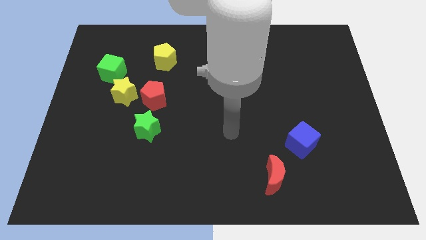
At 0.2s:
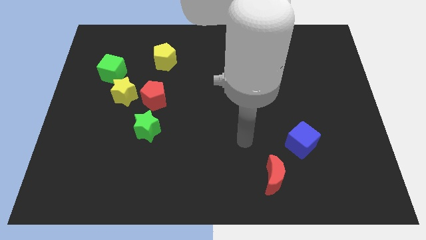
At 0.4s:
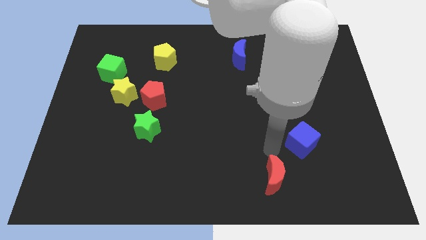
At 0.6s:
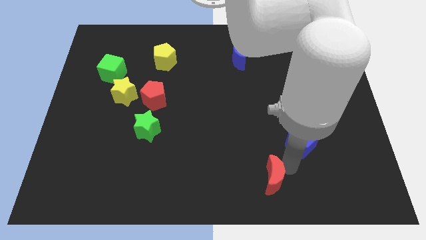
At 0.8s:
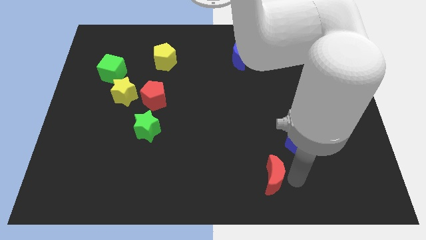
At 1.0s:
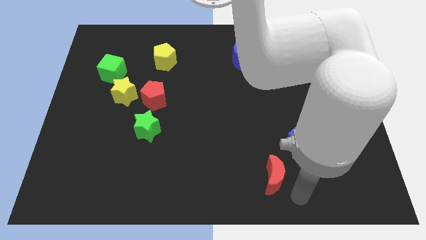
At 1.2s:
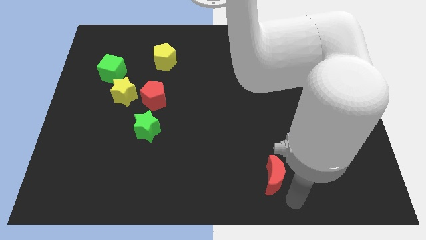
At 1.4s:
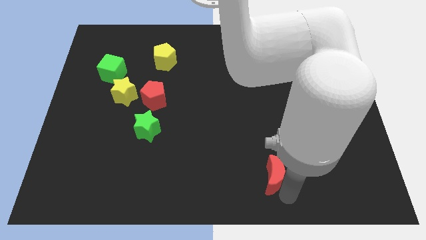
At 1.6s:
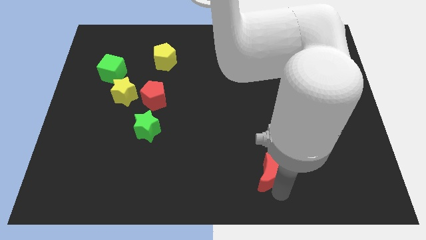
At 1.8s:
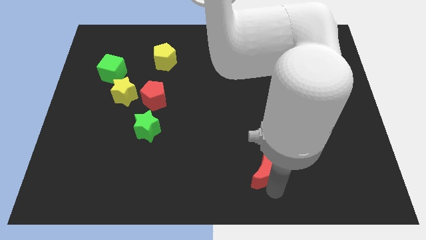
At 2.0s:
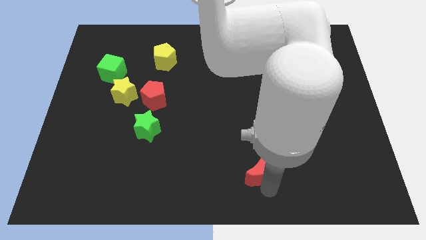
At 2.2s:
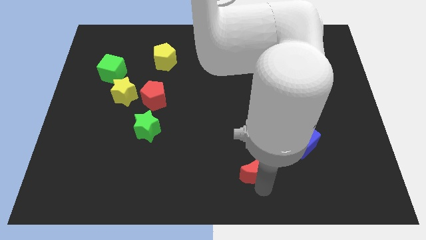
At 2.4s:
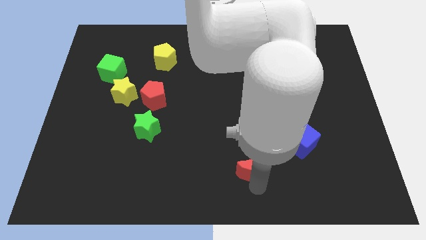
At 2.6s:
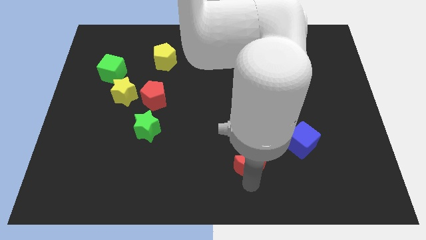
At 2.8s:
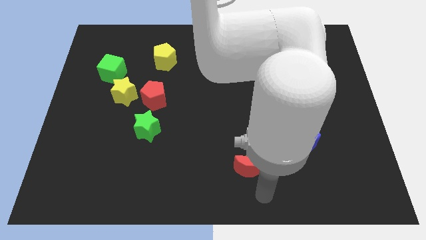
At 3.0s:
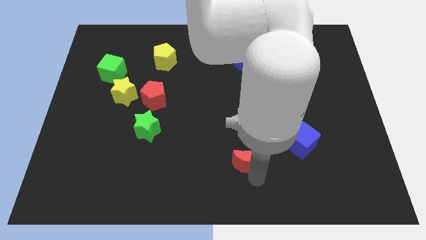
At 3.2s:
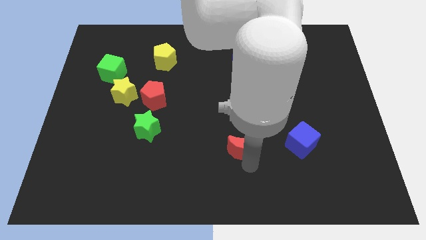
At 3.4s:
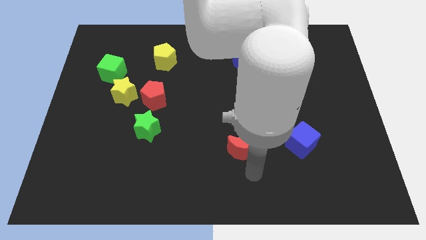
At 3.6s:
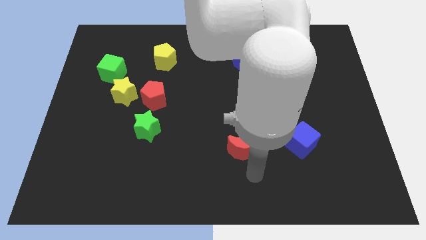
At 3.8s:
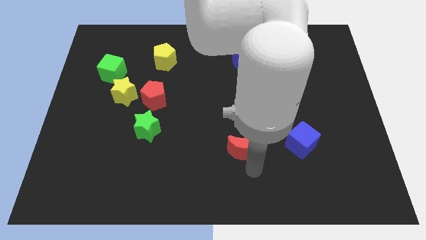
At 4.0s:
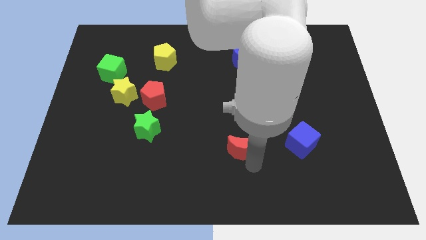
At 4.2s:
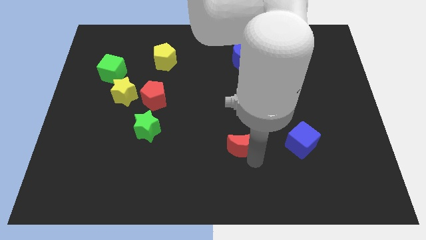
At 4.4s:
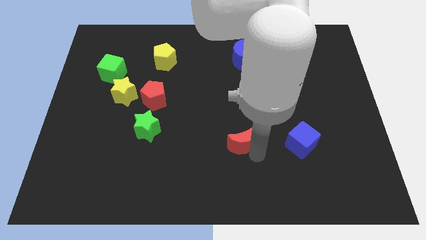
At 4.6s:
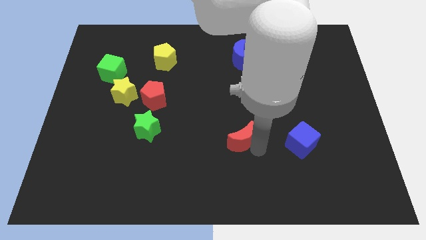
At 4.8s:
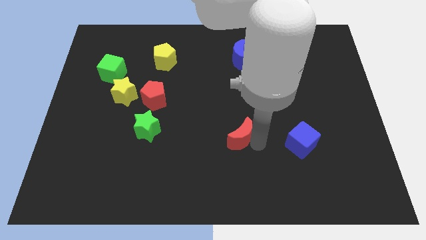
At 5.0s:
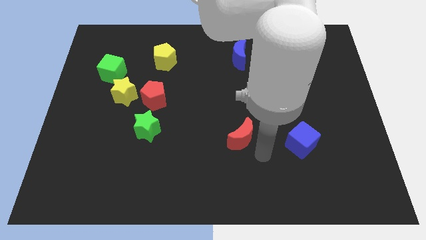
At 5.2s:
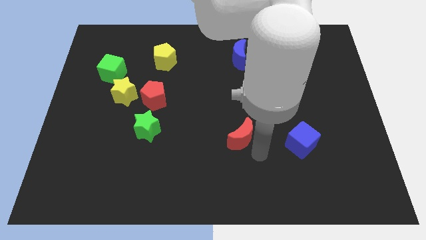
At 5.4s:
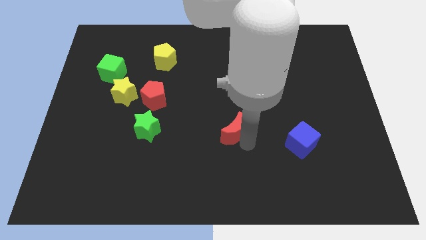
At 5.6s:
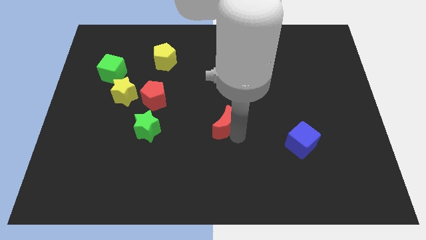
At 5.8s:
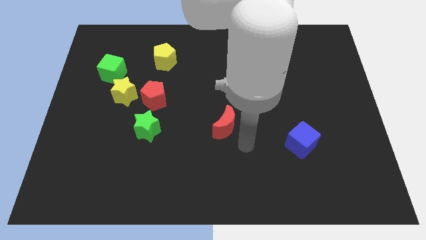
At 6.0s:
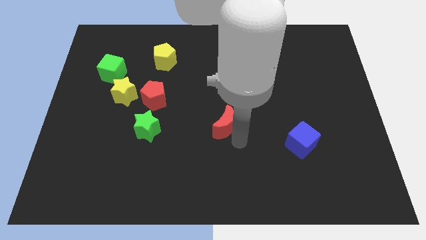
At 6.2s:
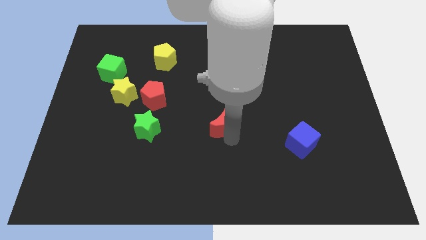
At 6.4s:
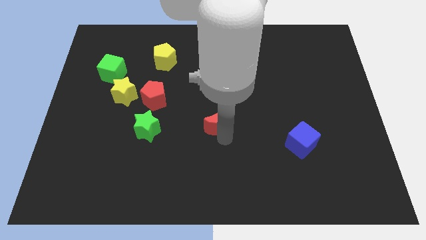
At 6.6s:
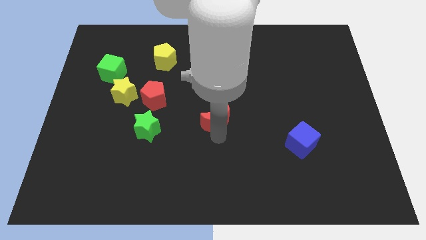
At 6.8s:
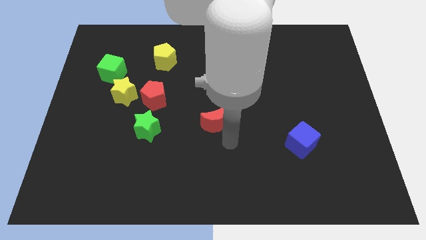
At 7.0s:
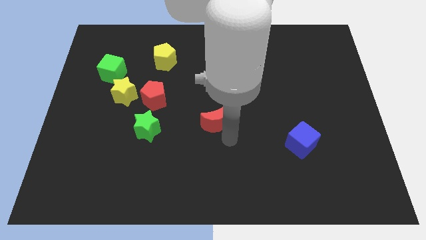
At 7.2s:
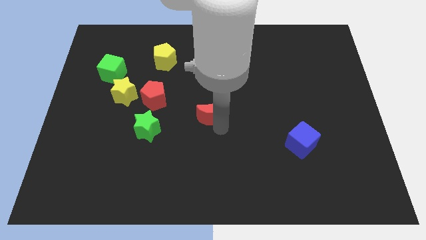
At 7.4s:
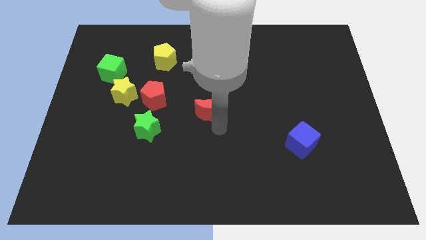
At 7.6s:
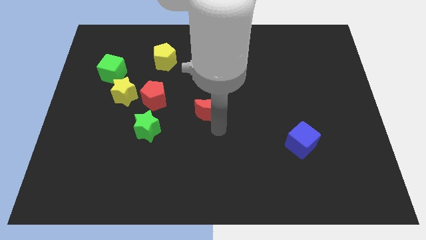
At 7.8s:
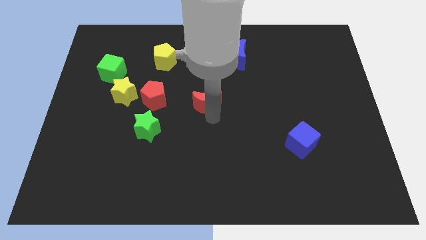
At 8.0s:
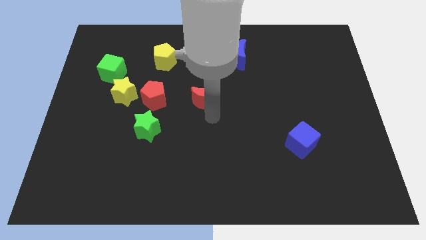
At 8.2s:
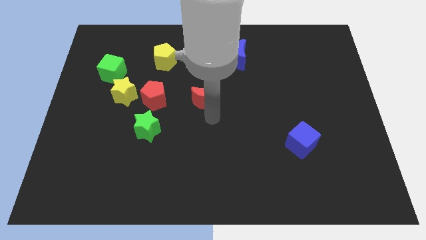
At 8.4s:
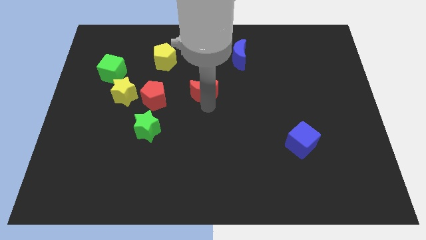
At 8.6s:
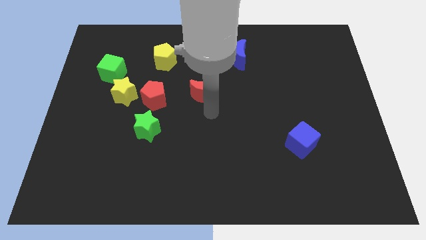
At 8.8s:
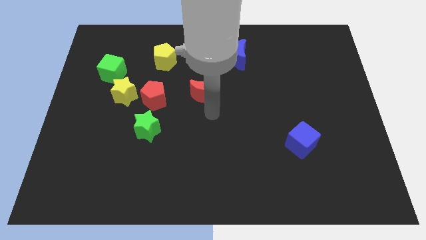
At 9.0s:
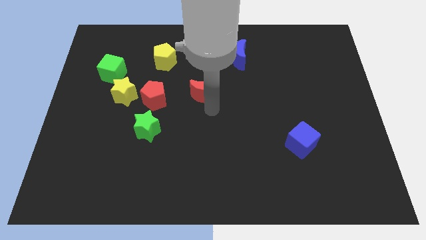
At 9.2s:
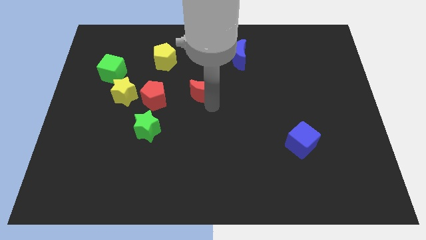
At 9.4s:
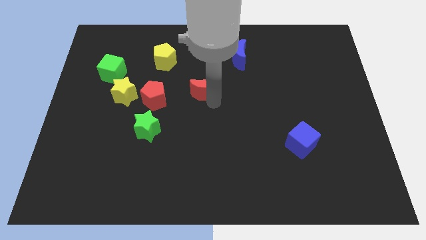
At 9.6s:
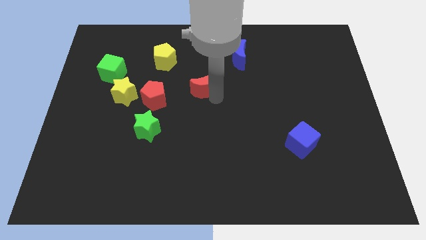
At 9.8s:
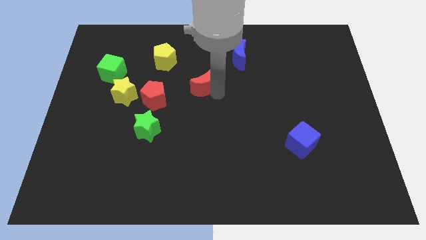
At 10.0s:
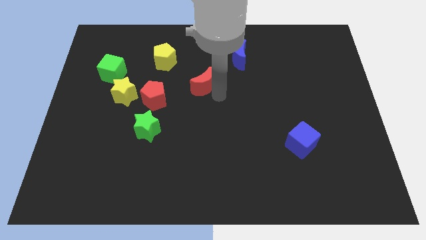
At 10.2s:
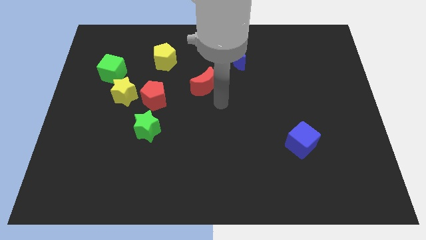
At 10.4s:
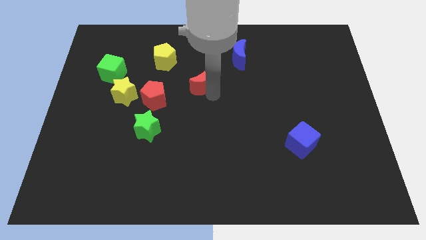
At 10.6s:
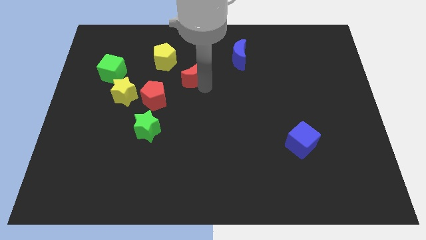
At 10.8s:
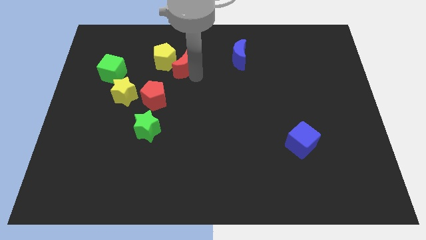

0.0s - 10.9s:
slide the red moon to the yellow pentagon

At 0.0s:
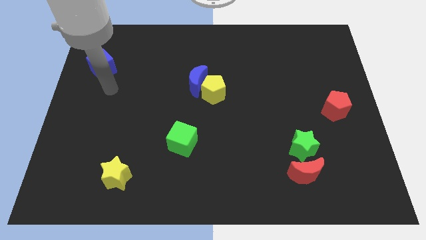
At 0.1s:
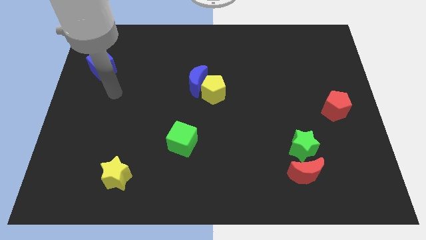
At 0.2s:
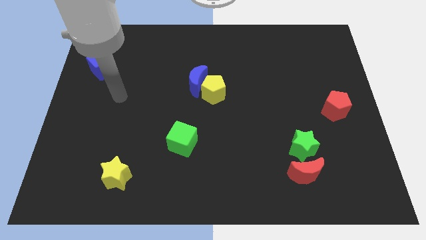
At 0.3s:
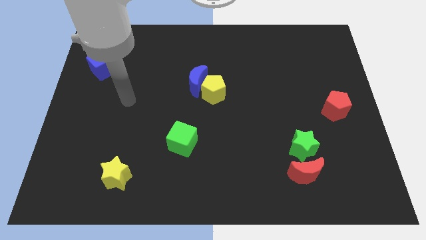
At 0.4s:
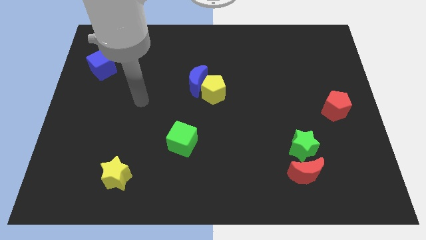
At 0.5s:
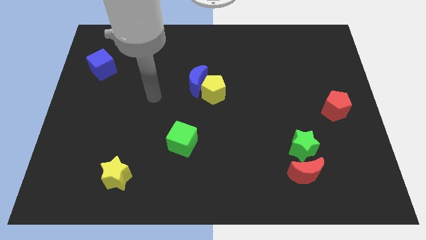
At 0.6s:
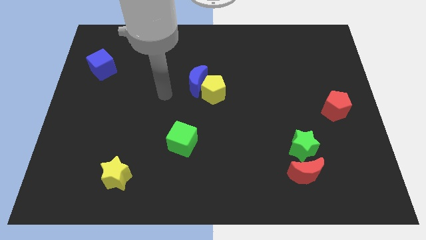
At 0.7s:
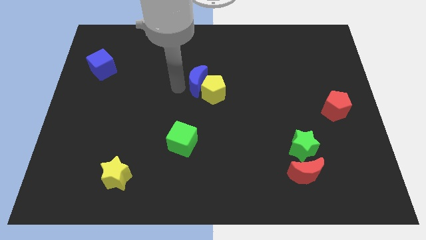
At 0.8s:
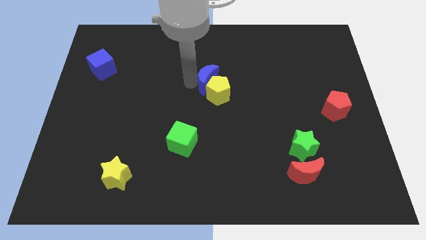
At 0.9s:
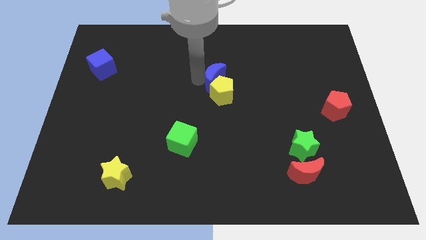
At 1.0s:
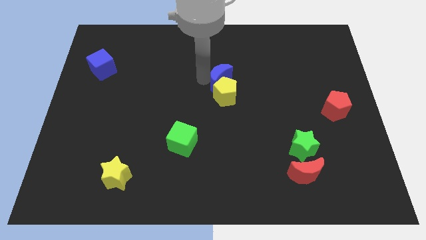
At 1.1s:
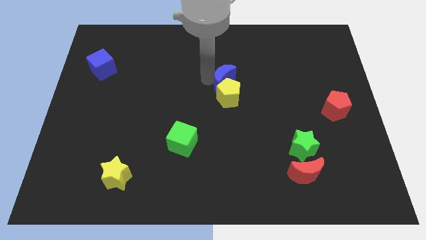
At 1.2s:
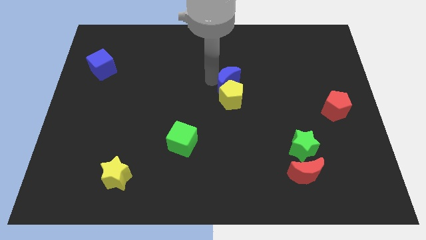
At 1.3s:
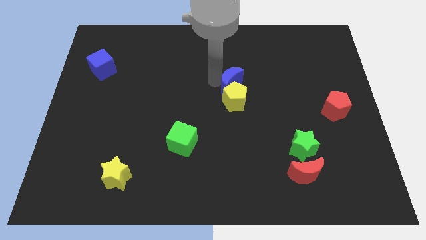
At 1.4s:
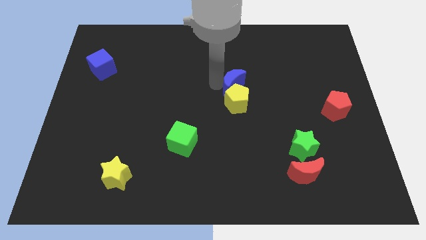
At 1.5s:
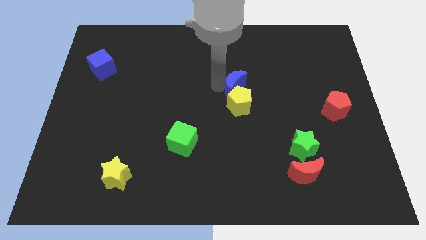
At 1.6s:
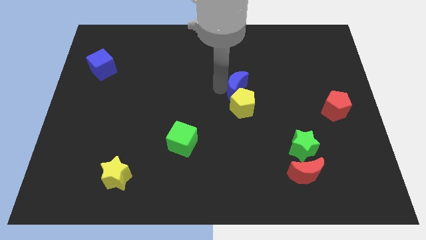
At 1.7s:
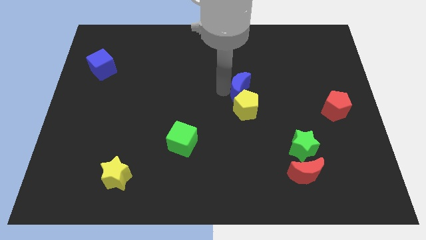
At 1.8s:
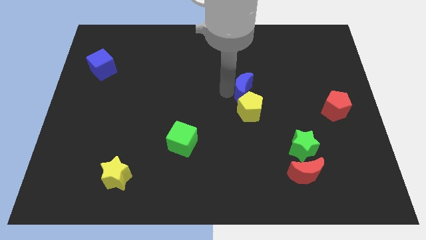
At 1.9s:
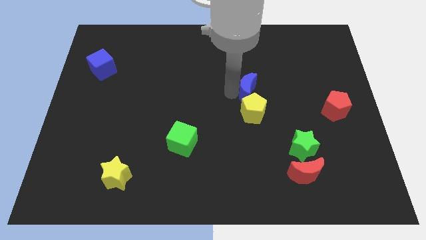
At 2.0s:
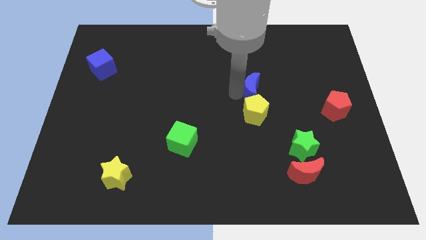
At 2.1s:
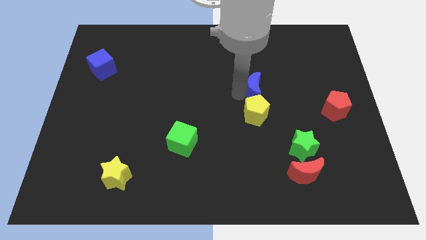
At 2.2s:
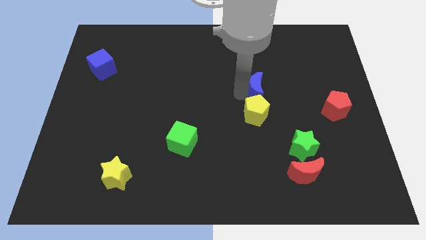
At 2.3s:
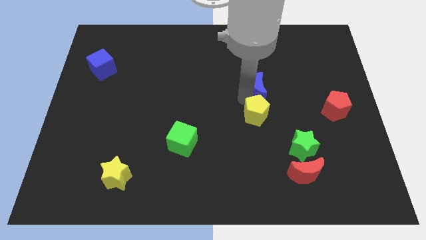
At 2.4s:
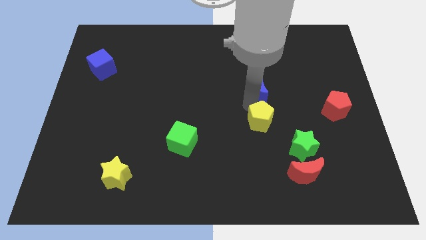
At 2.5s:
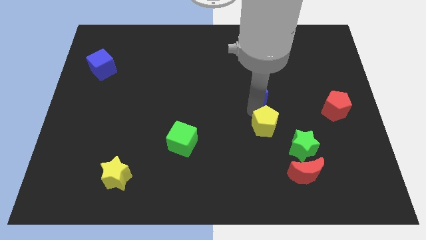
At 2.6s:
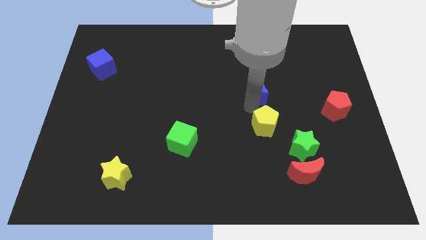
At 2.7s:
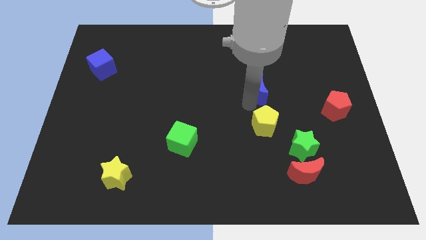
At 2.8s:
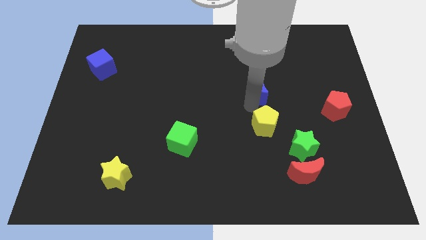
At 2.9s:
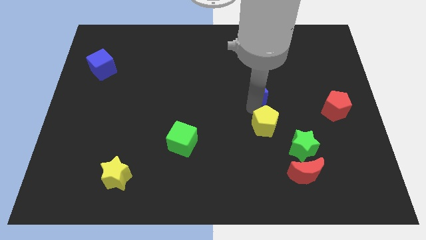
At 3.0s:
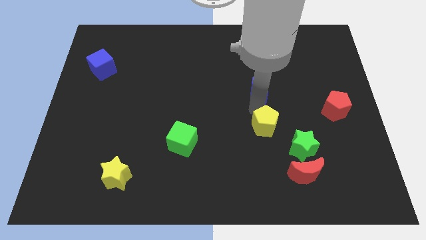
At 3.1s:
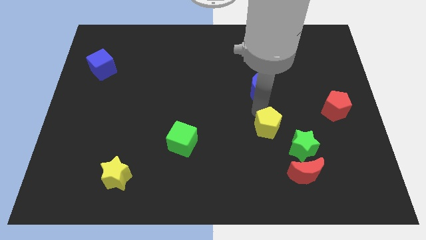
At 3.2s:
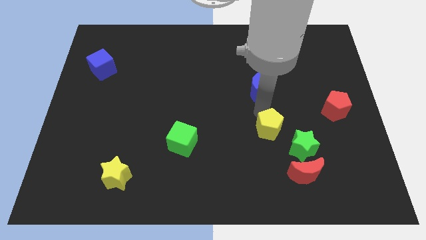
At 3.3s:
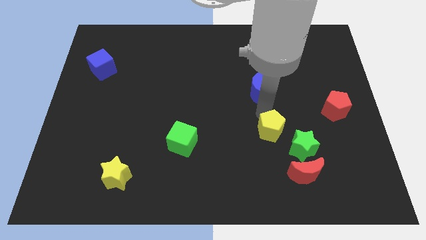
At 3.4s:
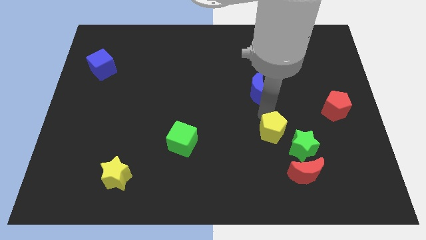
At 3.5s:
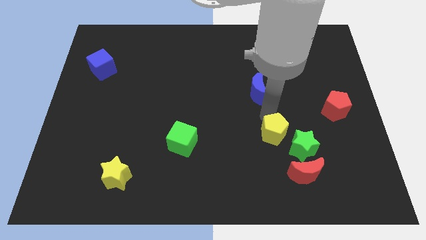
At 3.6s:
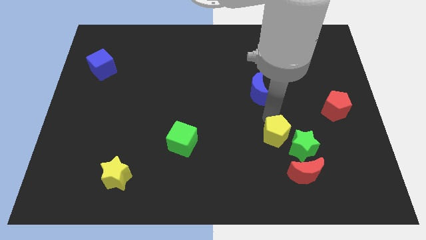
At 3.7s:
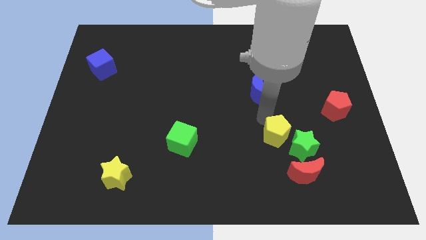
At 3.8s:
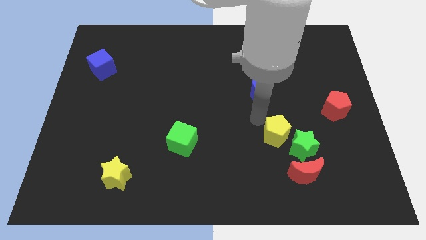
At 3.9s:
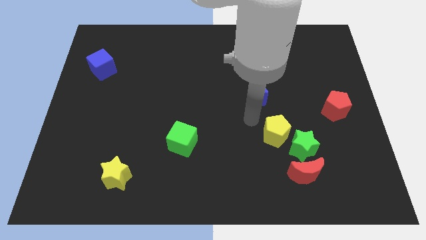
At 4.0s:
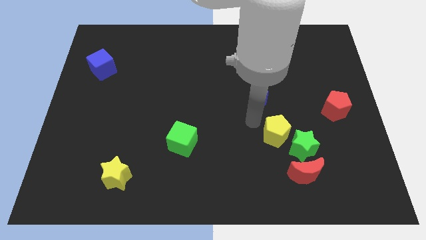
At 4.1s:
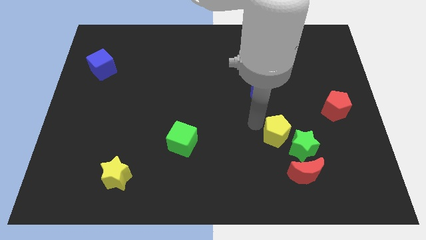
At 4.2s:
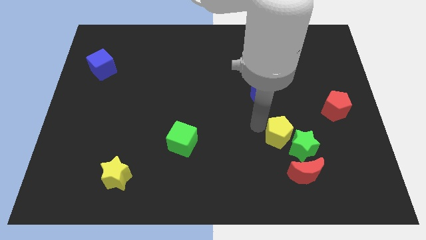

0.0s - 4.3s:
push the yellow pentagon close to the green star
